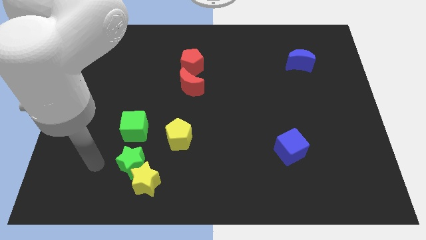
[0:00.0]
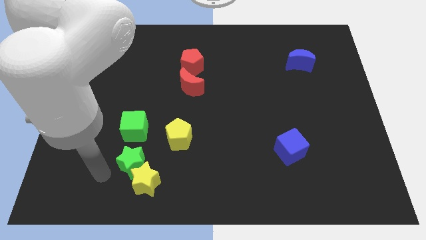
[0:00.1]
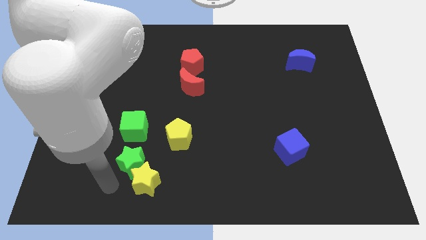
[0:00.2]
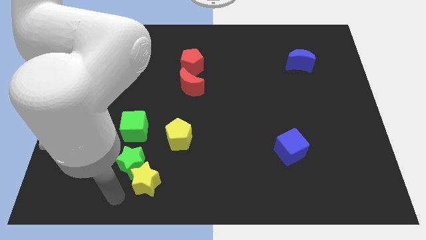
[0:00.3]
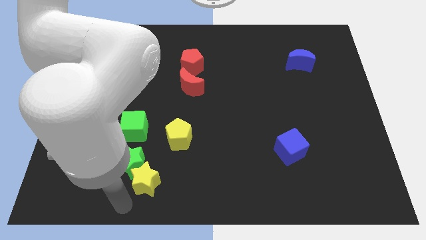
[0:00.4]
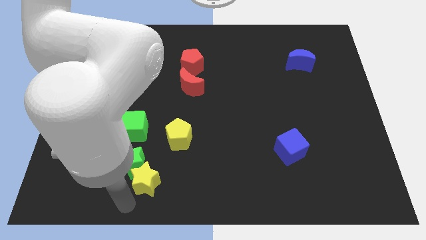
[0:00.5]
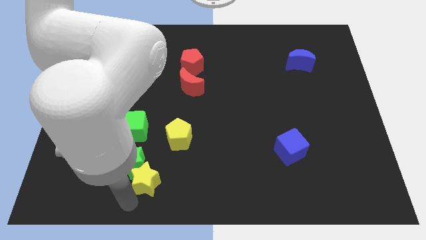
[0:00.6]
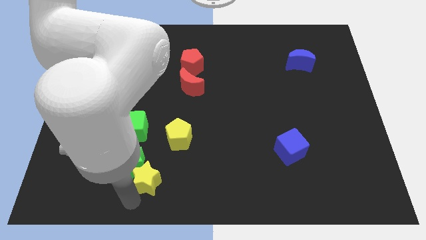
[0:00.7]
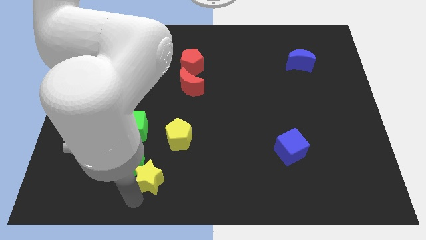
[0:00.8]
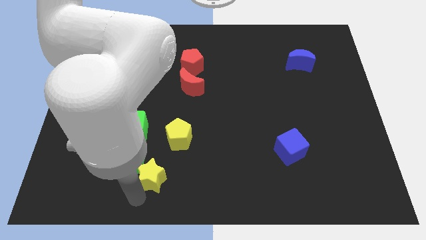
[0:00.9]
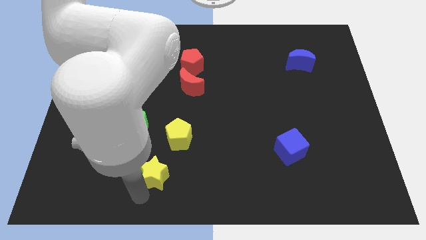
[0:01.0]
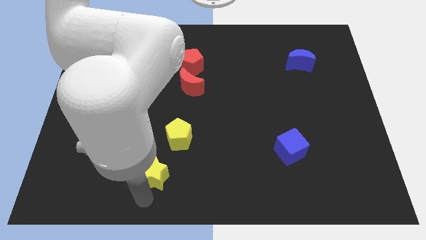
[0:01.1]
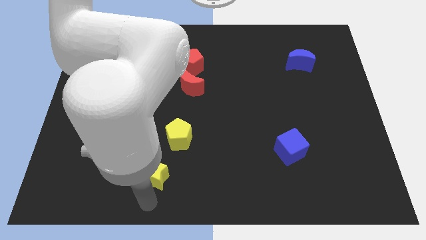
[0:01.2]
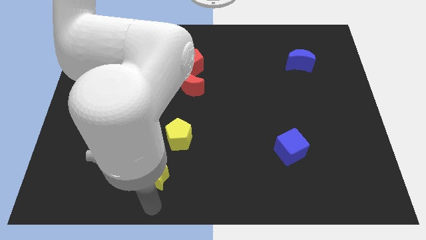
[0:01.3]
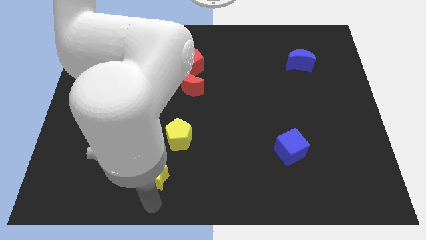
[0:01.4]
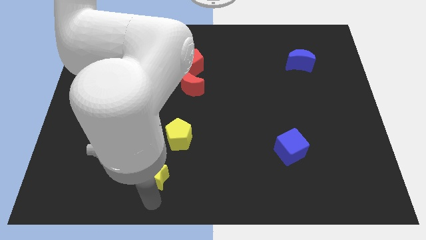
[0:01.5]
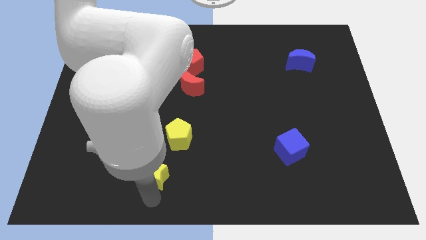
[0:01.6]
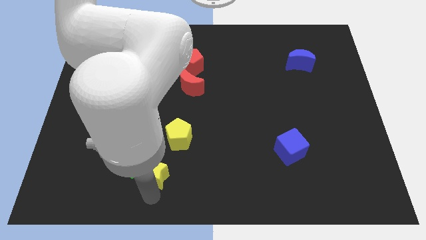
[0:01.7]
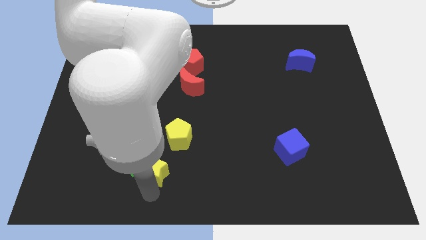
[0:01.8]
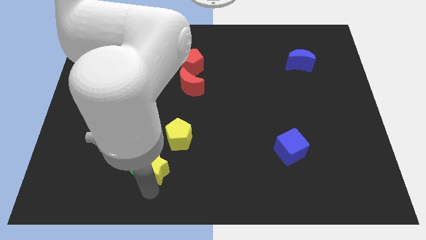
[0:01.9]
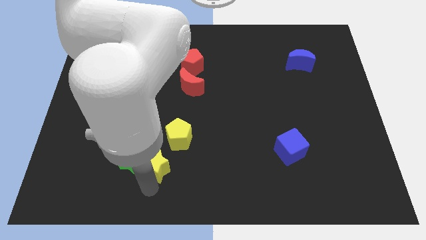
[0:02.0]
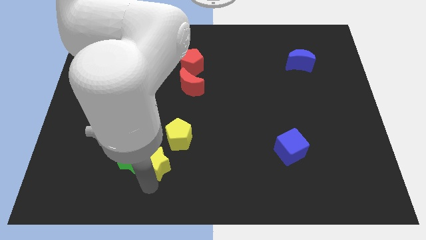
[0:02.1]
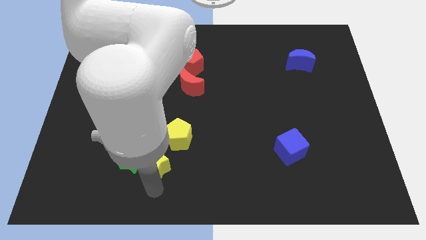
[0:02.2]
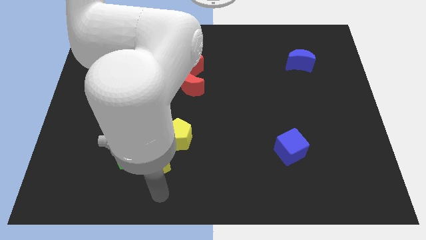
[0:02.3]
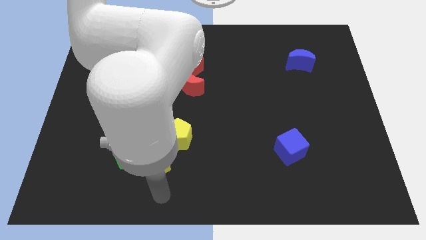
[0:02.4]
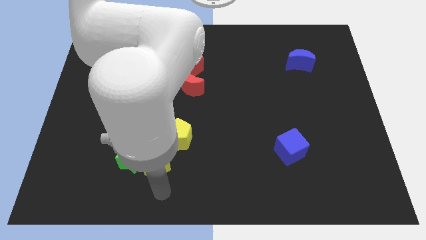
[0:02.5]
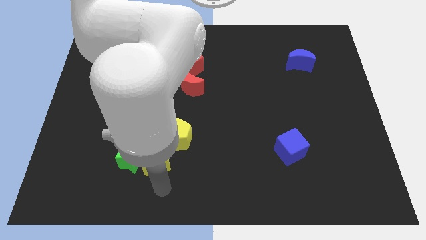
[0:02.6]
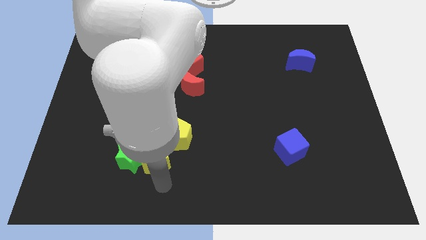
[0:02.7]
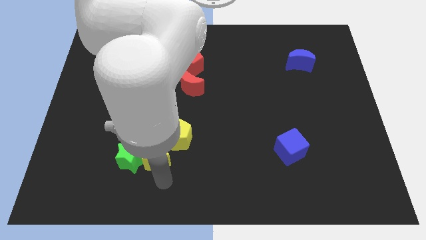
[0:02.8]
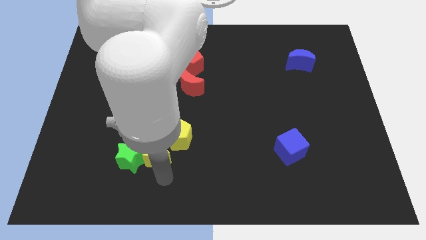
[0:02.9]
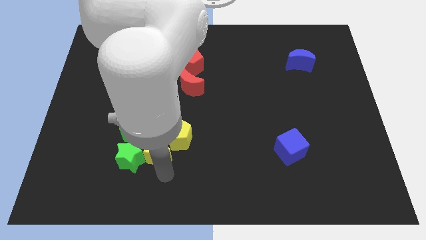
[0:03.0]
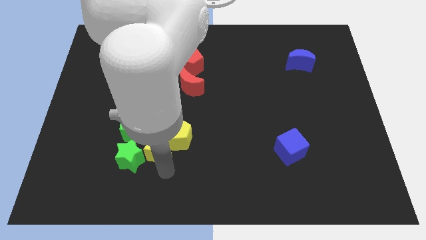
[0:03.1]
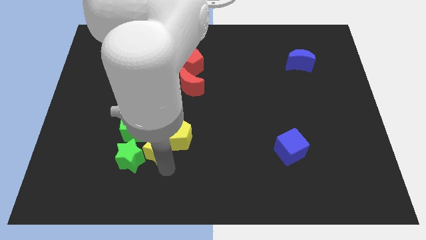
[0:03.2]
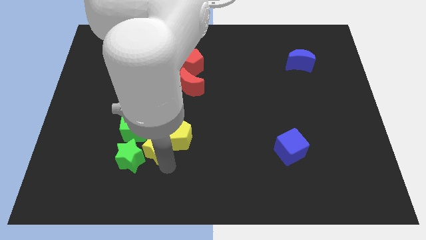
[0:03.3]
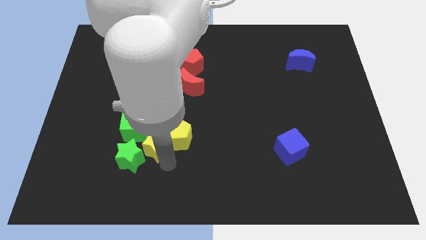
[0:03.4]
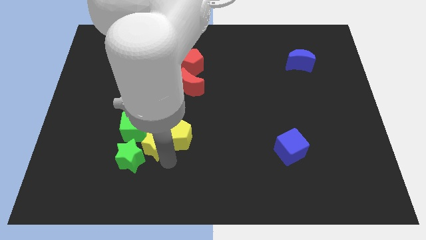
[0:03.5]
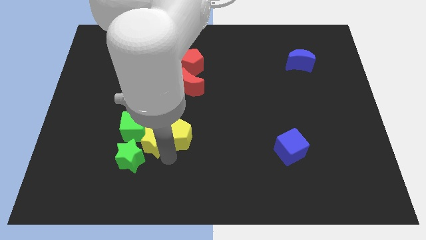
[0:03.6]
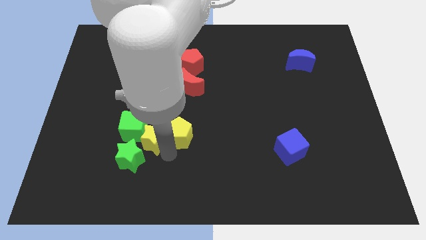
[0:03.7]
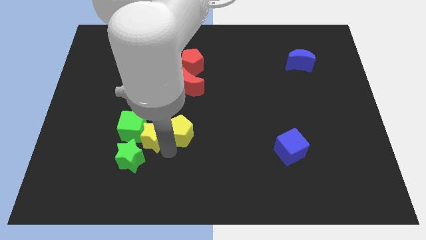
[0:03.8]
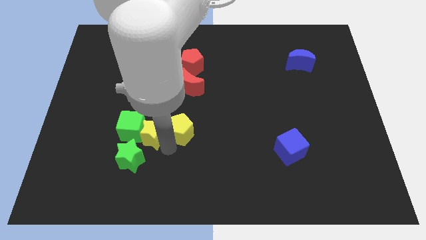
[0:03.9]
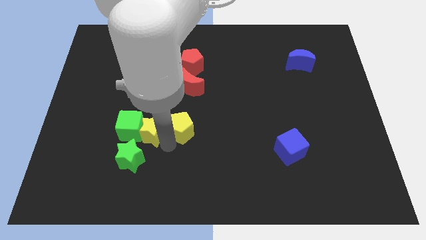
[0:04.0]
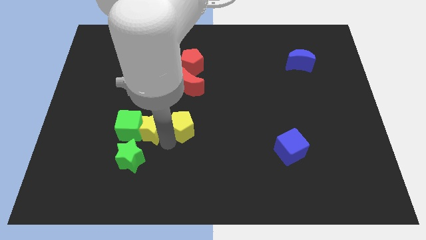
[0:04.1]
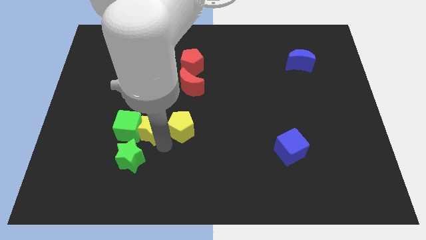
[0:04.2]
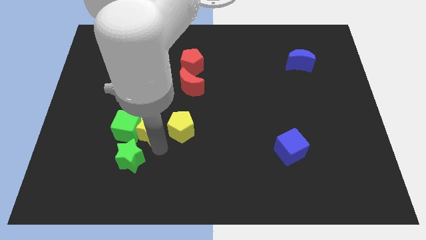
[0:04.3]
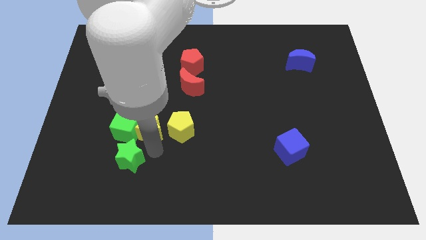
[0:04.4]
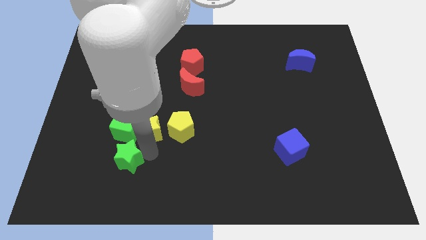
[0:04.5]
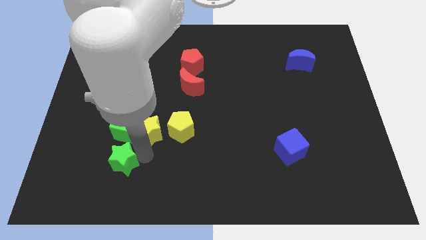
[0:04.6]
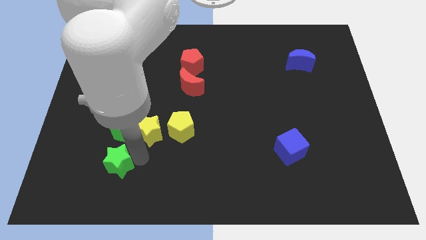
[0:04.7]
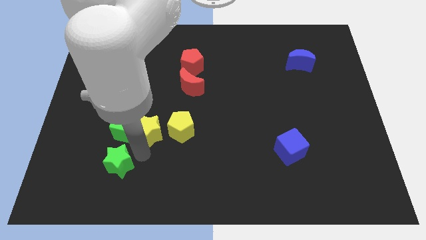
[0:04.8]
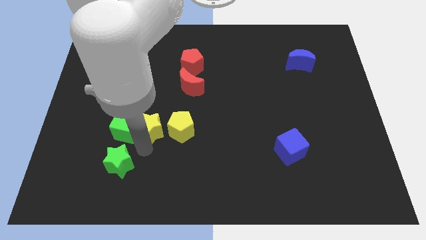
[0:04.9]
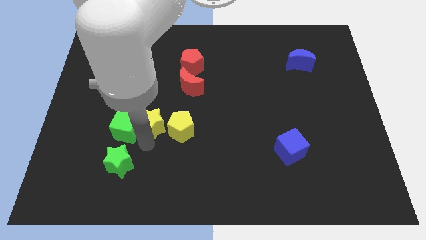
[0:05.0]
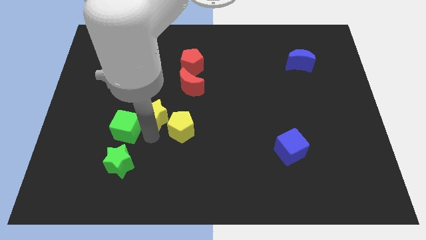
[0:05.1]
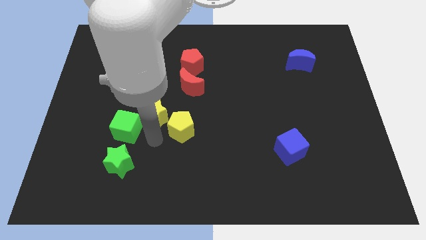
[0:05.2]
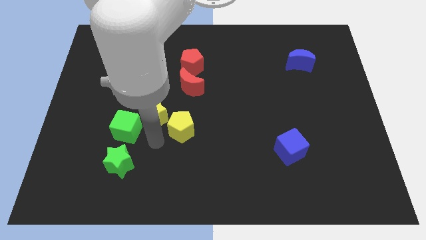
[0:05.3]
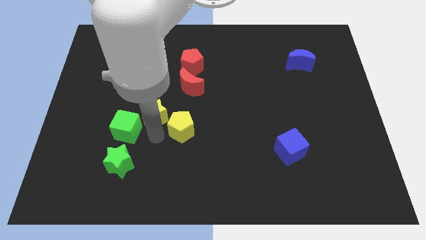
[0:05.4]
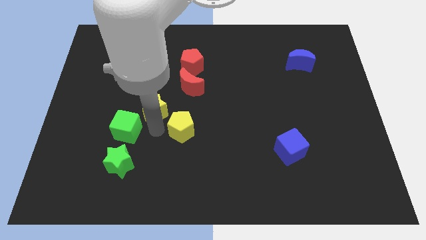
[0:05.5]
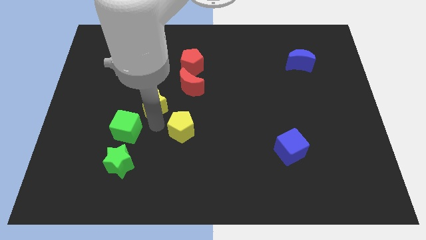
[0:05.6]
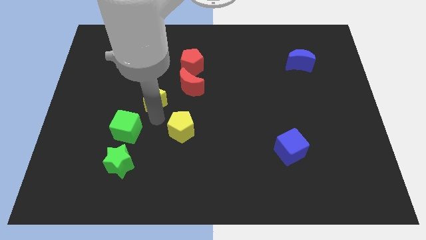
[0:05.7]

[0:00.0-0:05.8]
move the yellow star upwards

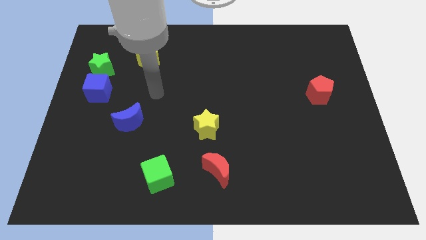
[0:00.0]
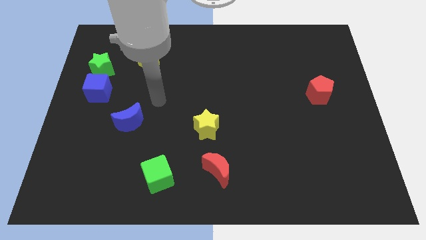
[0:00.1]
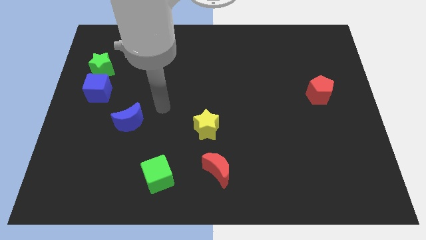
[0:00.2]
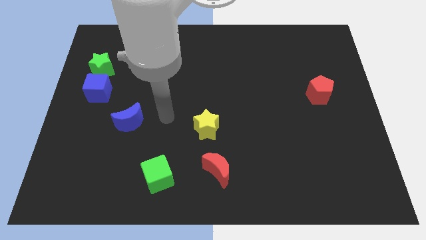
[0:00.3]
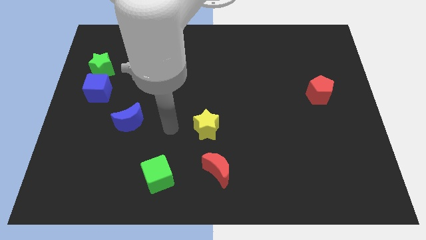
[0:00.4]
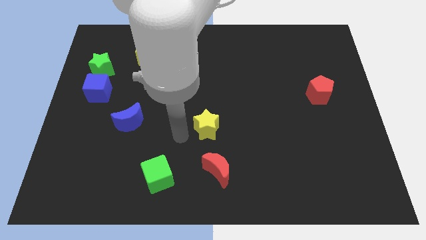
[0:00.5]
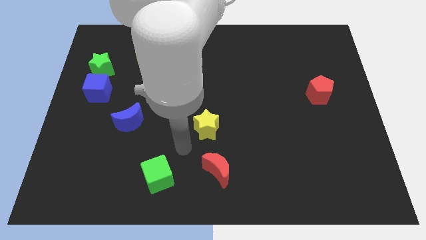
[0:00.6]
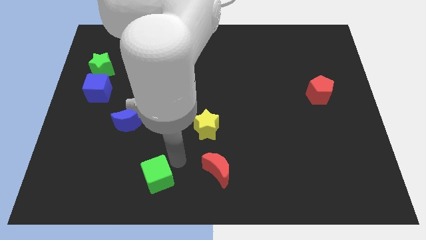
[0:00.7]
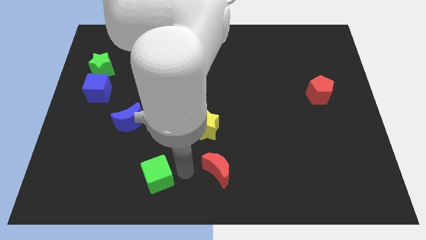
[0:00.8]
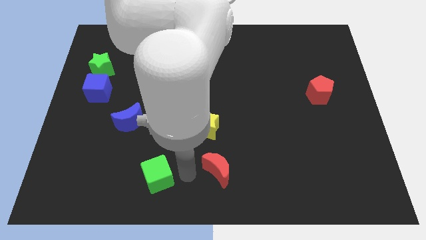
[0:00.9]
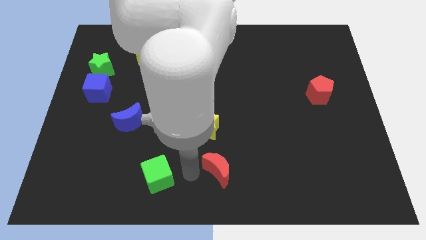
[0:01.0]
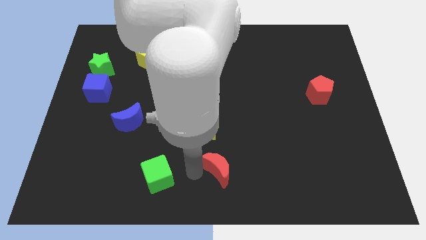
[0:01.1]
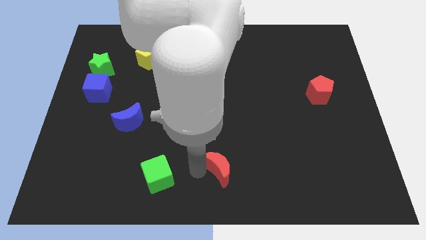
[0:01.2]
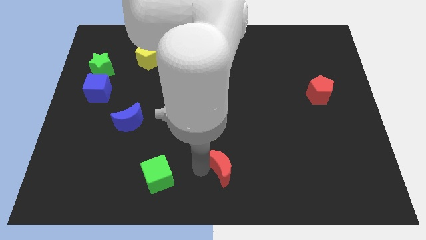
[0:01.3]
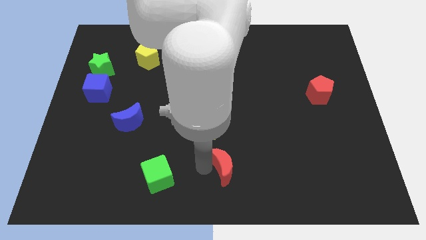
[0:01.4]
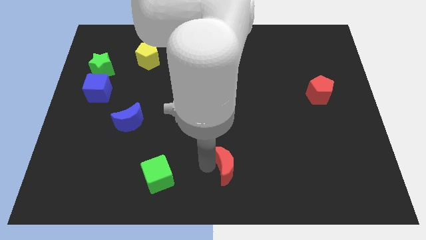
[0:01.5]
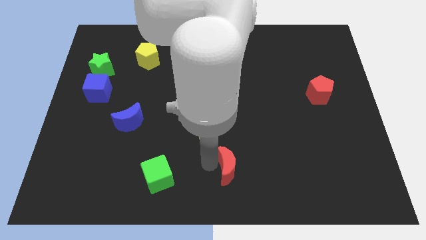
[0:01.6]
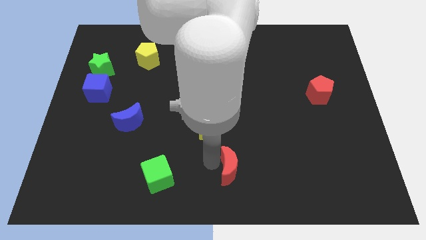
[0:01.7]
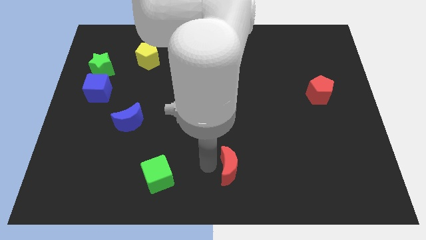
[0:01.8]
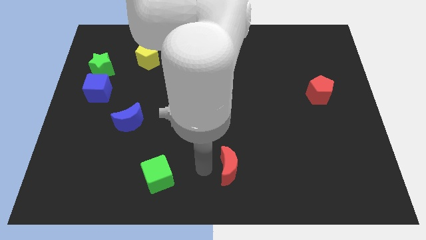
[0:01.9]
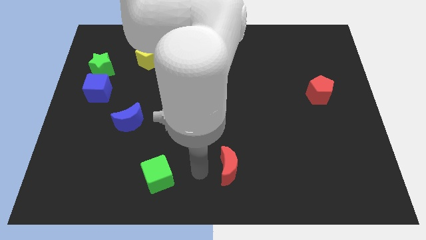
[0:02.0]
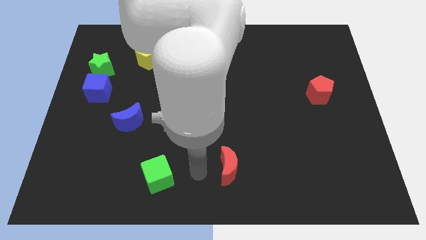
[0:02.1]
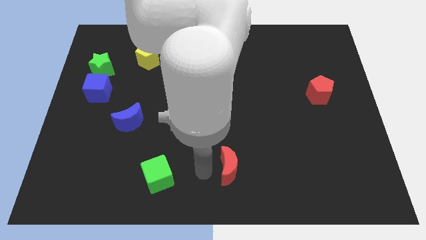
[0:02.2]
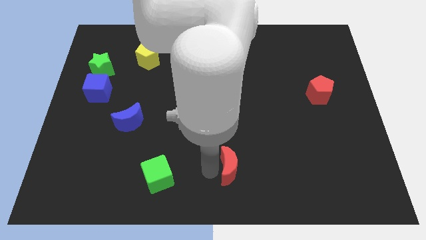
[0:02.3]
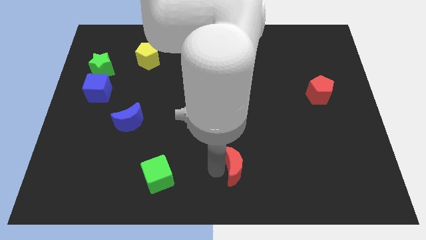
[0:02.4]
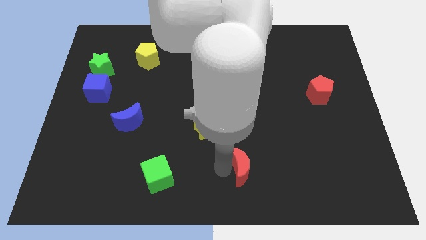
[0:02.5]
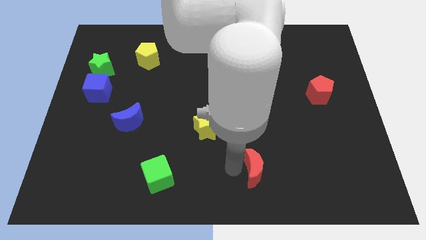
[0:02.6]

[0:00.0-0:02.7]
slide the red moon a little bit to the right
